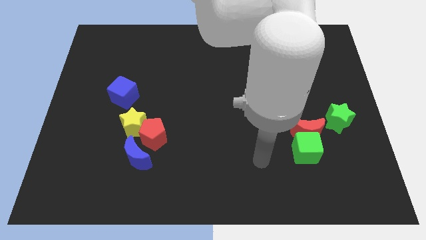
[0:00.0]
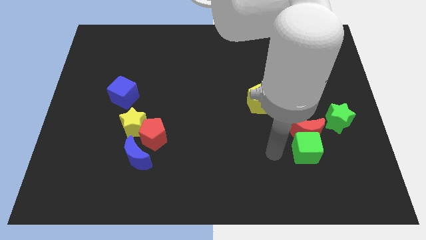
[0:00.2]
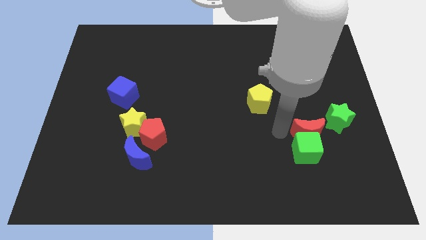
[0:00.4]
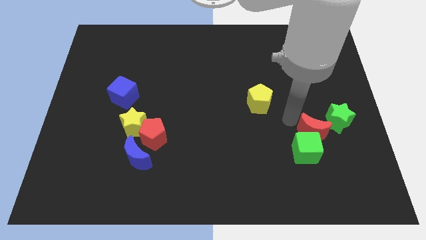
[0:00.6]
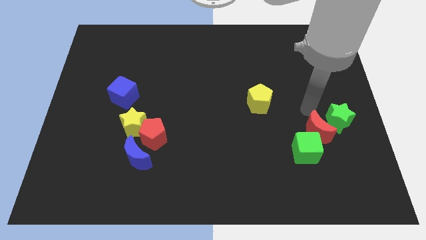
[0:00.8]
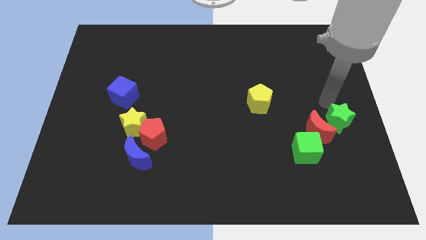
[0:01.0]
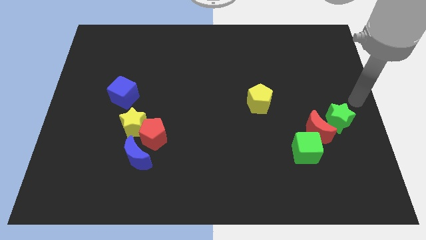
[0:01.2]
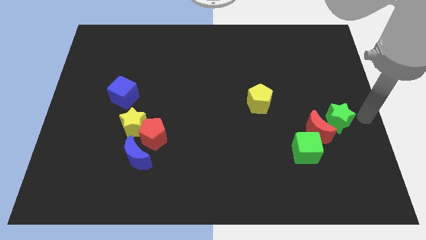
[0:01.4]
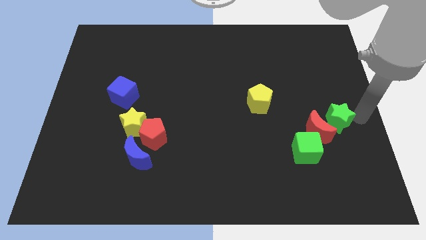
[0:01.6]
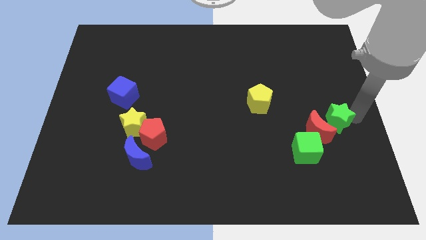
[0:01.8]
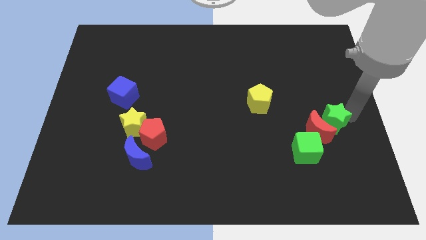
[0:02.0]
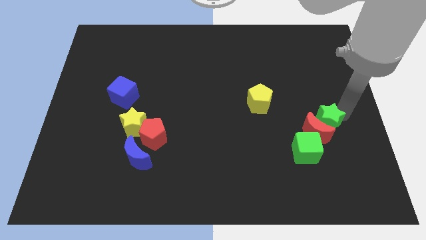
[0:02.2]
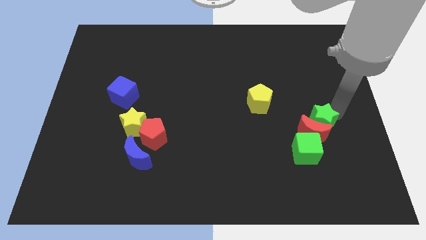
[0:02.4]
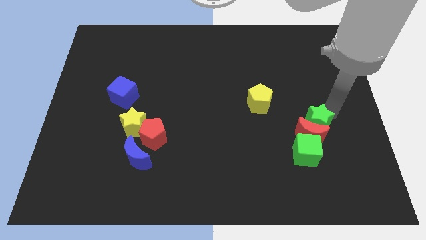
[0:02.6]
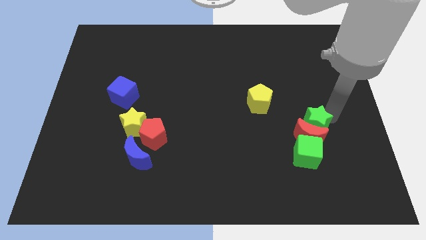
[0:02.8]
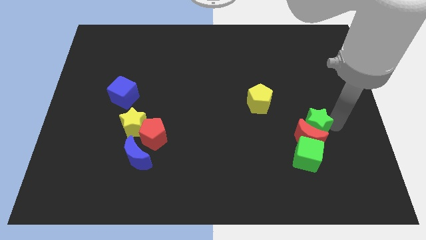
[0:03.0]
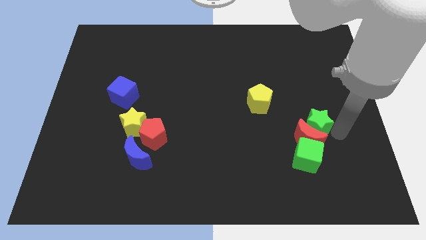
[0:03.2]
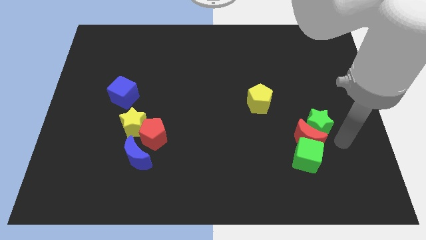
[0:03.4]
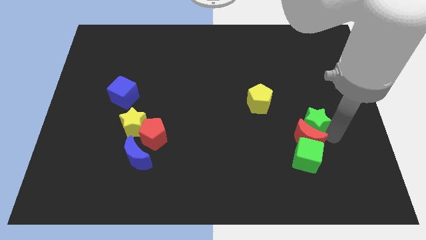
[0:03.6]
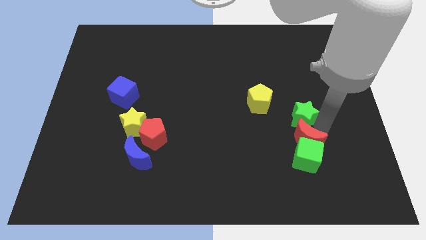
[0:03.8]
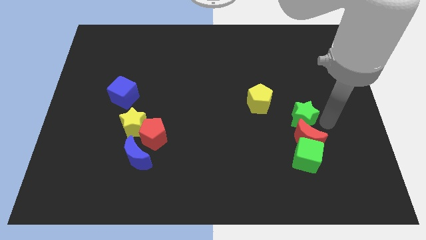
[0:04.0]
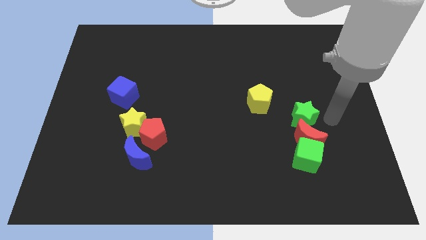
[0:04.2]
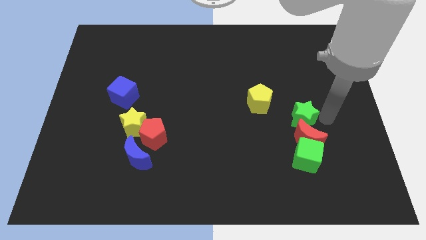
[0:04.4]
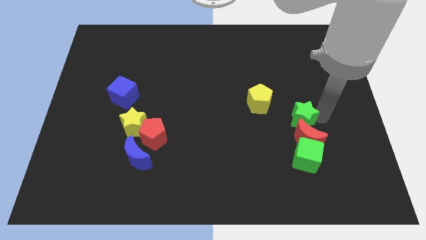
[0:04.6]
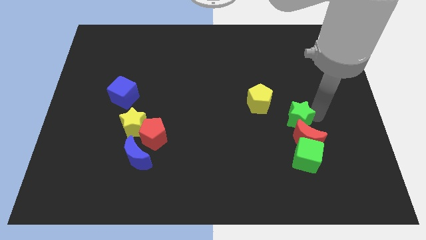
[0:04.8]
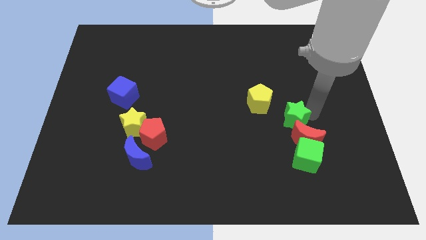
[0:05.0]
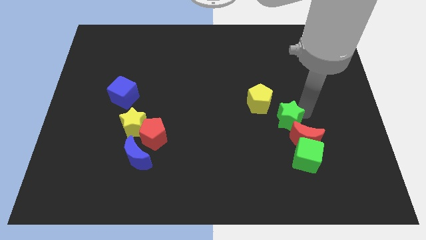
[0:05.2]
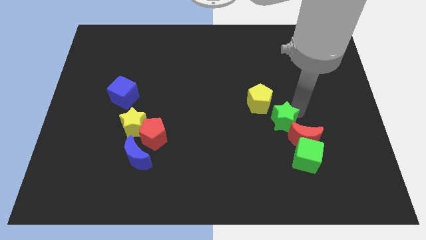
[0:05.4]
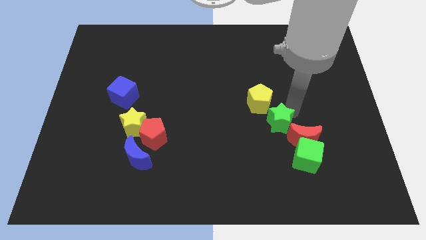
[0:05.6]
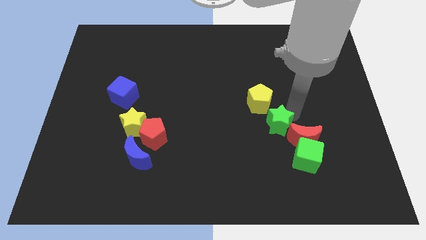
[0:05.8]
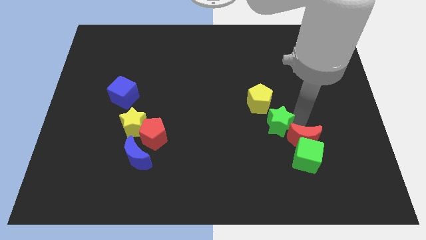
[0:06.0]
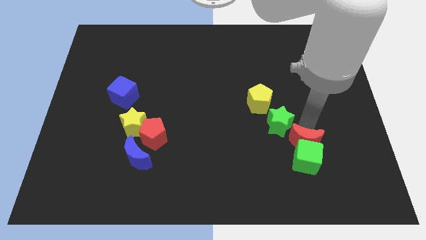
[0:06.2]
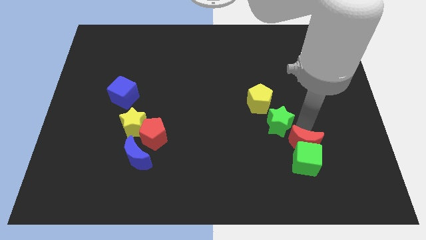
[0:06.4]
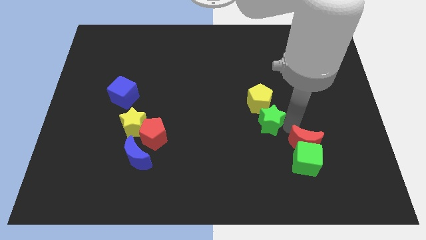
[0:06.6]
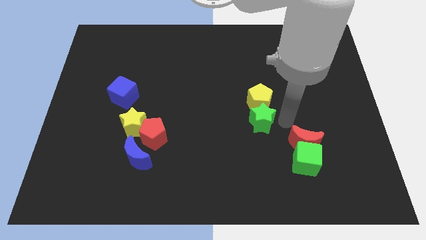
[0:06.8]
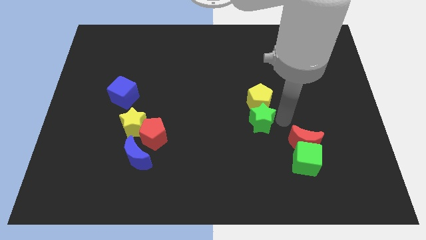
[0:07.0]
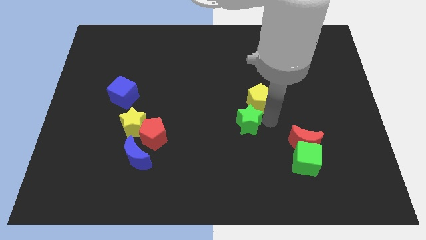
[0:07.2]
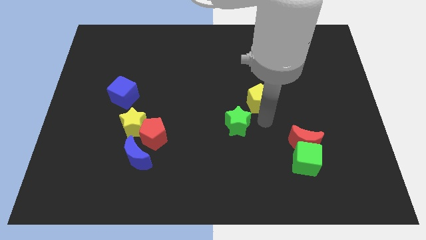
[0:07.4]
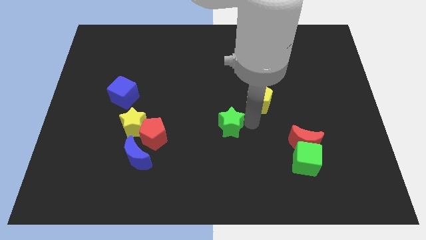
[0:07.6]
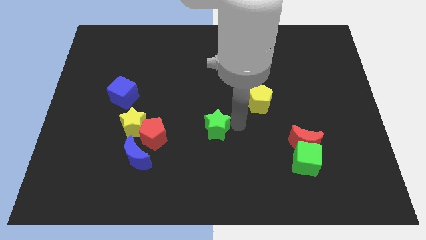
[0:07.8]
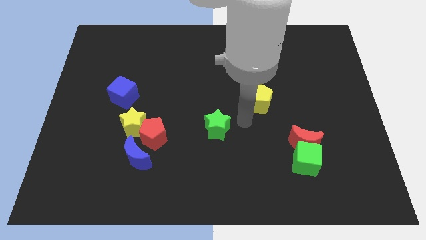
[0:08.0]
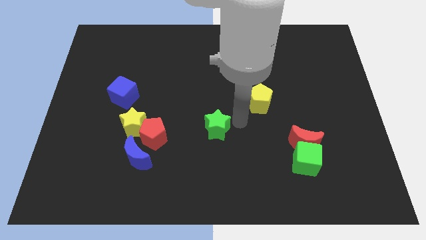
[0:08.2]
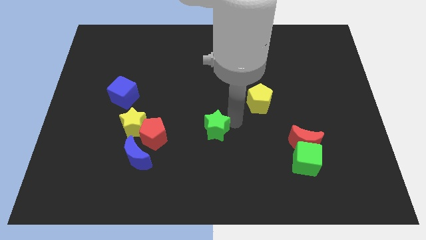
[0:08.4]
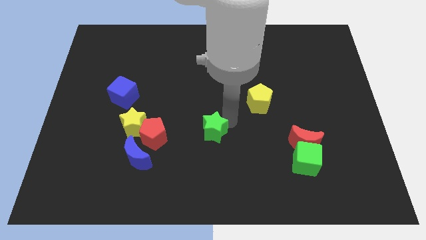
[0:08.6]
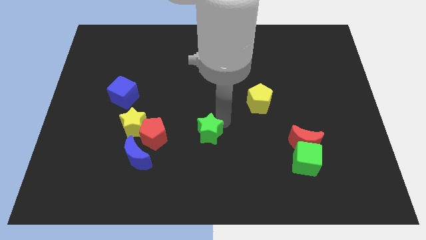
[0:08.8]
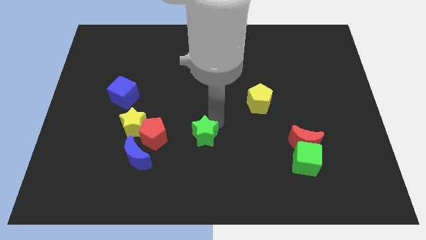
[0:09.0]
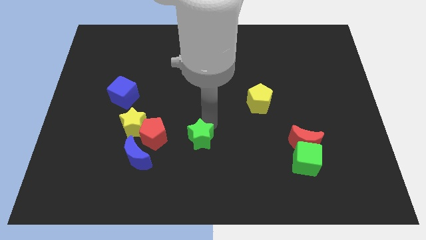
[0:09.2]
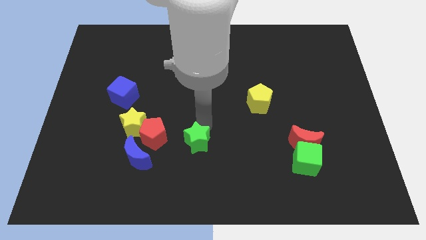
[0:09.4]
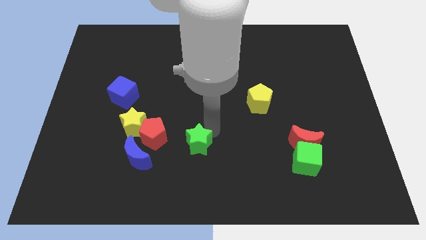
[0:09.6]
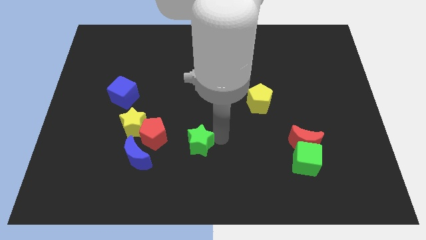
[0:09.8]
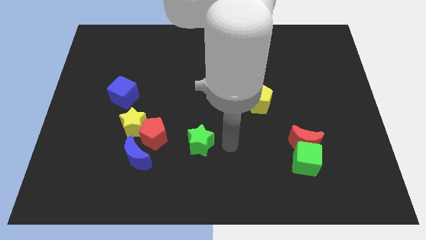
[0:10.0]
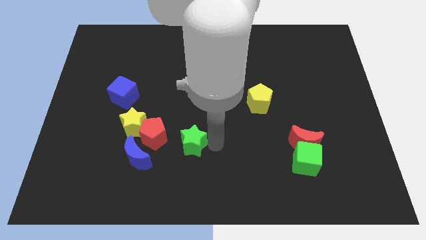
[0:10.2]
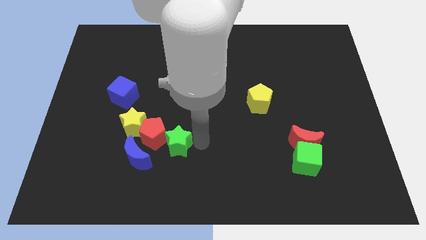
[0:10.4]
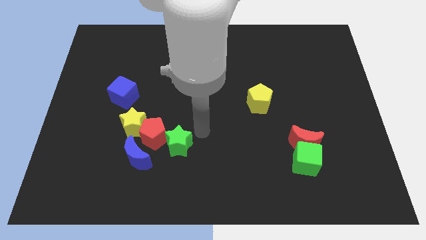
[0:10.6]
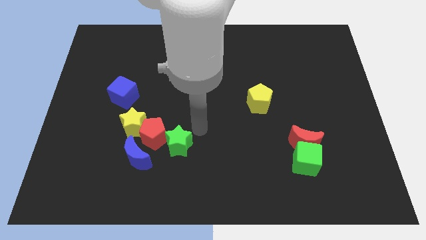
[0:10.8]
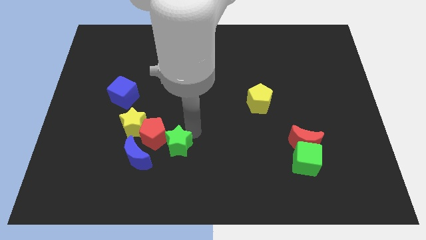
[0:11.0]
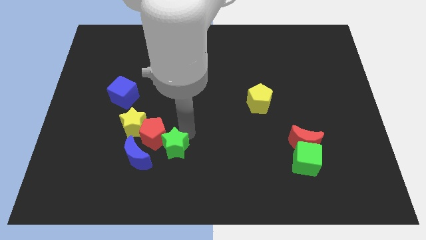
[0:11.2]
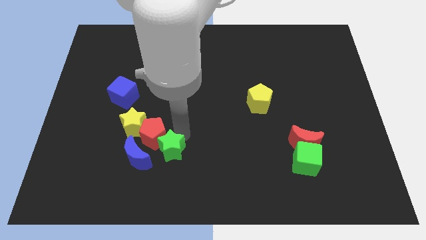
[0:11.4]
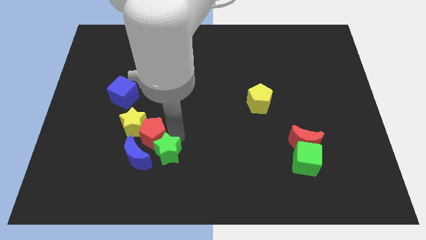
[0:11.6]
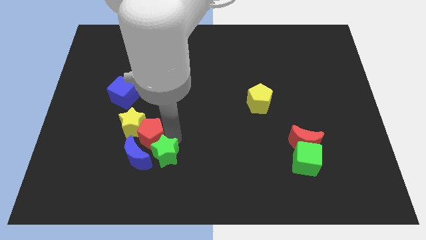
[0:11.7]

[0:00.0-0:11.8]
push the green star to the blue moon

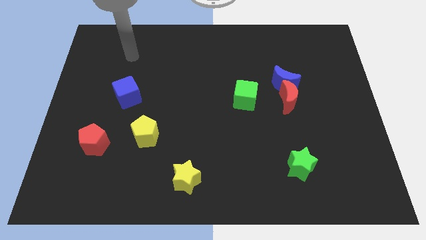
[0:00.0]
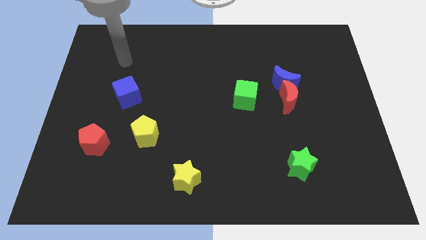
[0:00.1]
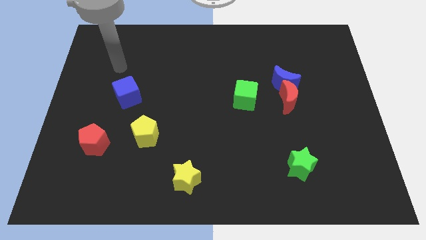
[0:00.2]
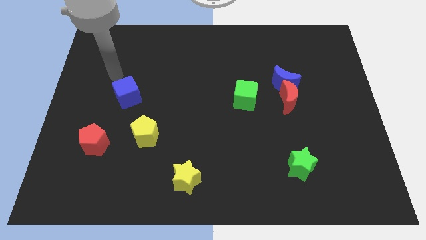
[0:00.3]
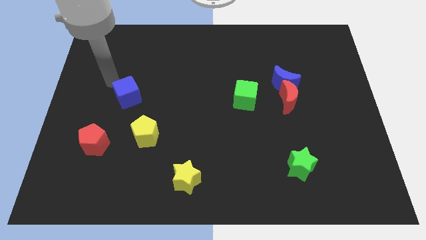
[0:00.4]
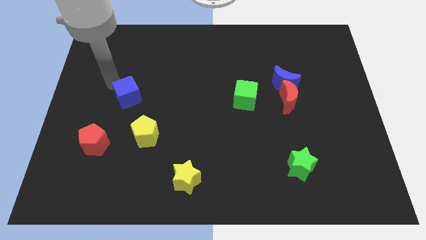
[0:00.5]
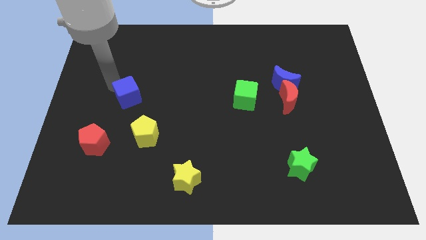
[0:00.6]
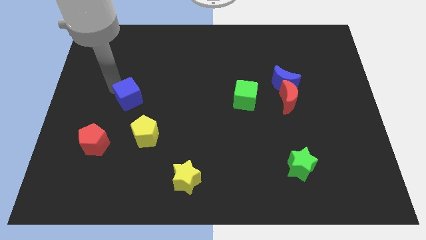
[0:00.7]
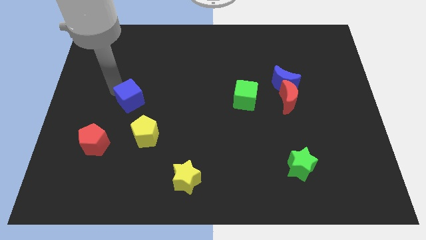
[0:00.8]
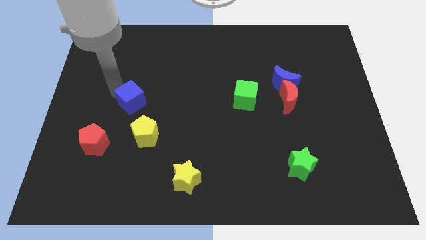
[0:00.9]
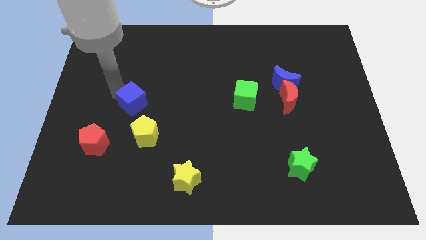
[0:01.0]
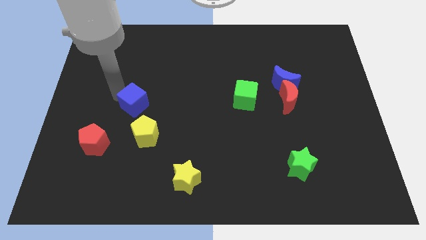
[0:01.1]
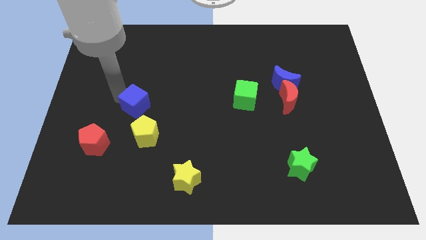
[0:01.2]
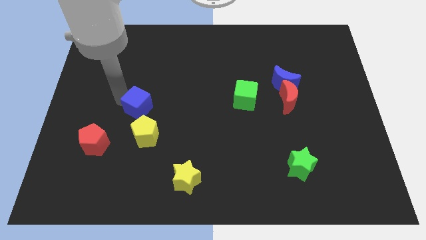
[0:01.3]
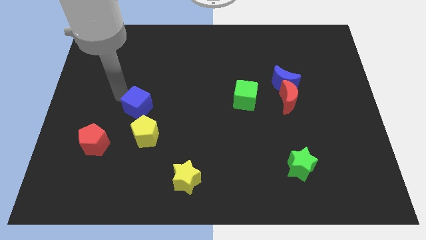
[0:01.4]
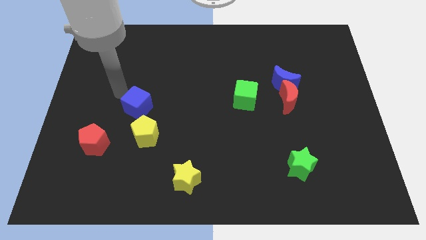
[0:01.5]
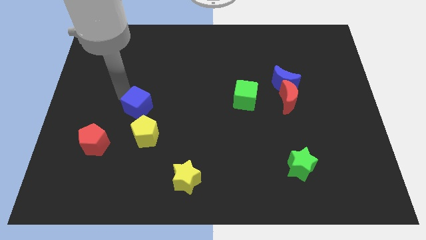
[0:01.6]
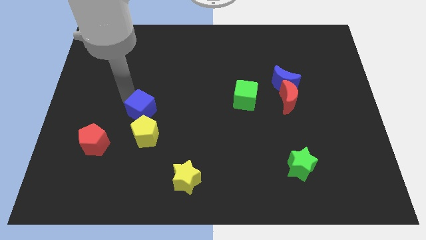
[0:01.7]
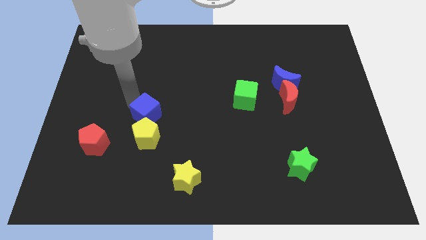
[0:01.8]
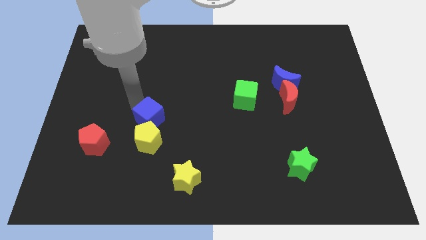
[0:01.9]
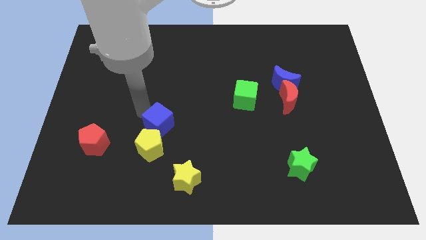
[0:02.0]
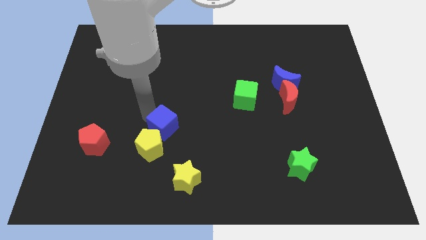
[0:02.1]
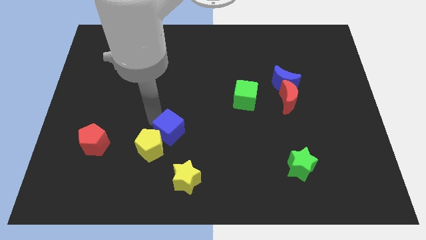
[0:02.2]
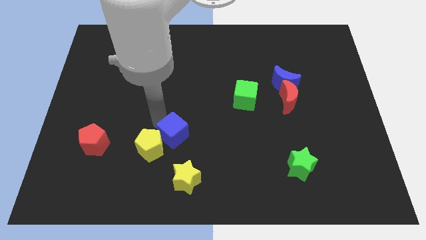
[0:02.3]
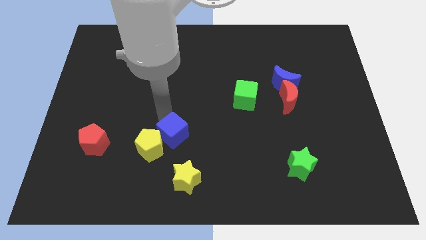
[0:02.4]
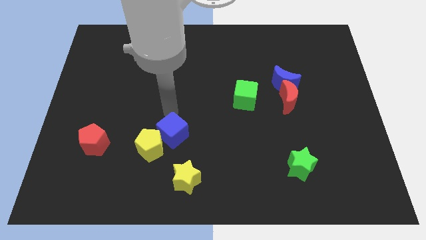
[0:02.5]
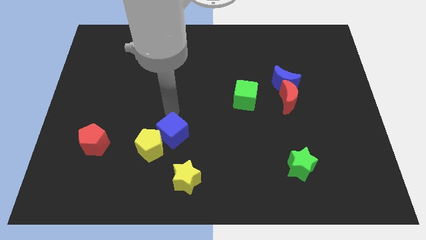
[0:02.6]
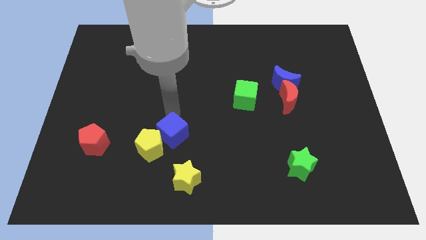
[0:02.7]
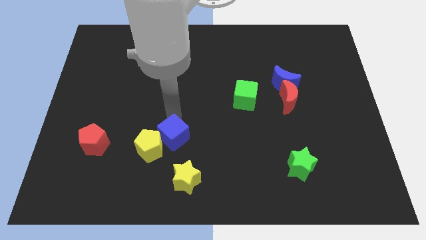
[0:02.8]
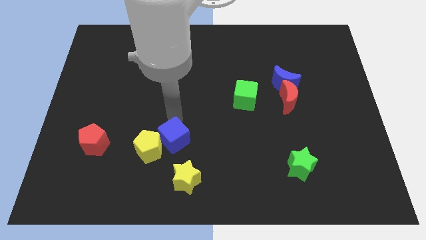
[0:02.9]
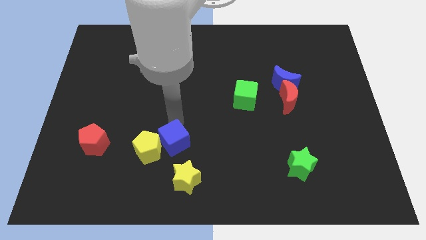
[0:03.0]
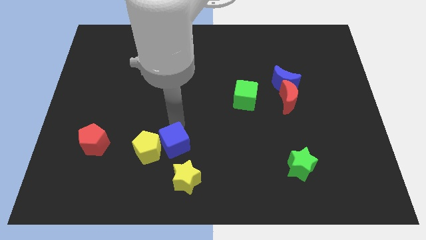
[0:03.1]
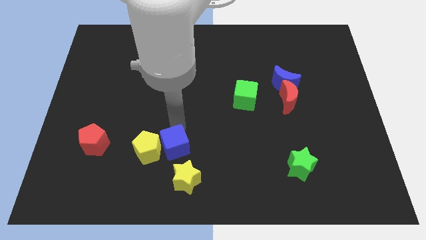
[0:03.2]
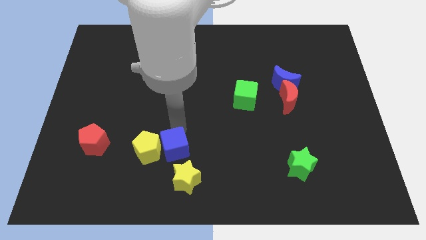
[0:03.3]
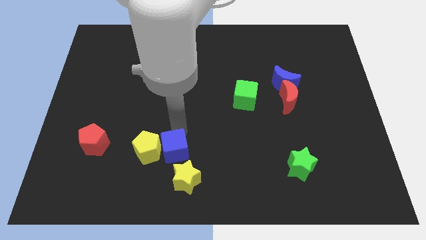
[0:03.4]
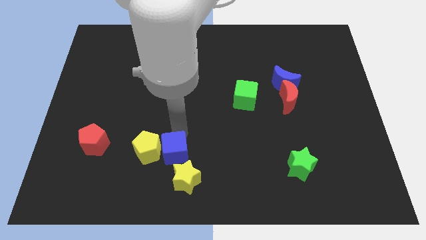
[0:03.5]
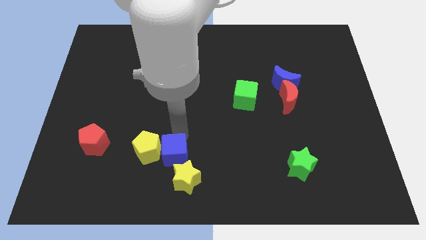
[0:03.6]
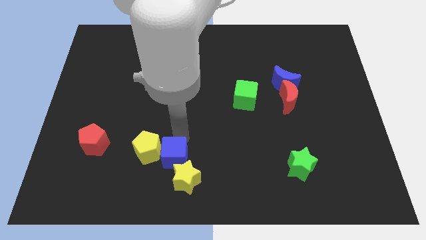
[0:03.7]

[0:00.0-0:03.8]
move the blue cube to the yellow star
